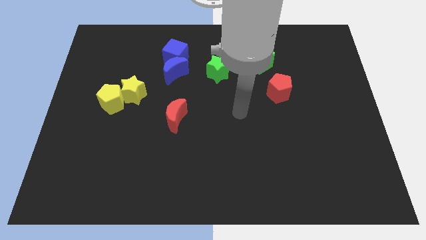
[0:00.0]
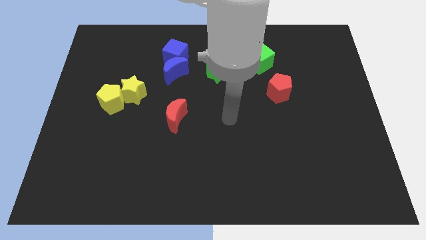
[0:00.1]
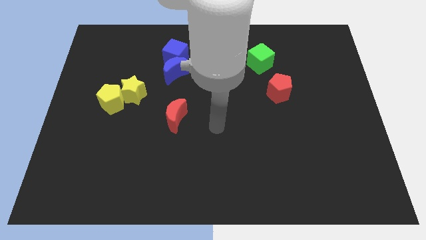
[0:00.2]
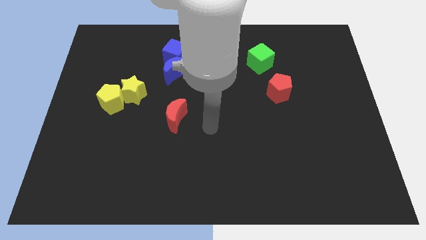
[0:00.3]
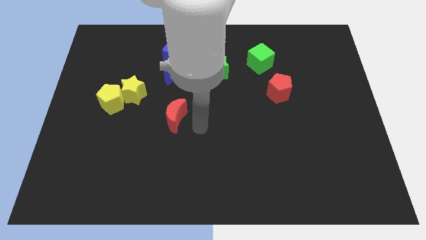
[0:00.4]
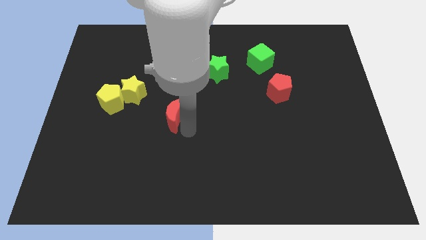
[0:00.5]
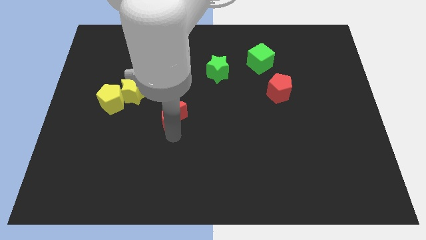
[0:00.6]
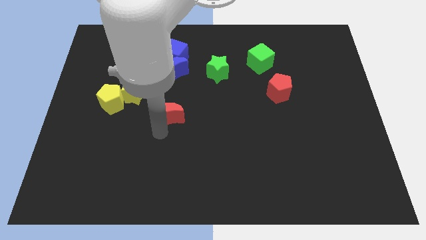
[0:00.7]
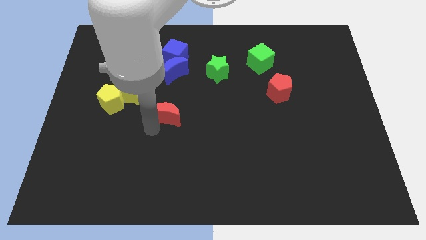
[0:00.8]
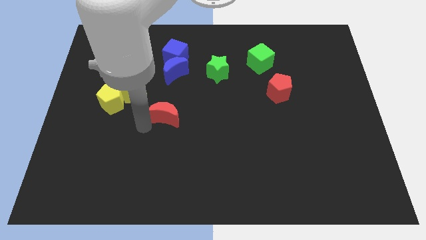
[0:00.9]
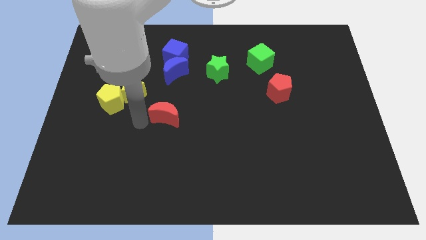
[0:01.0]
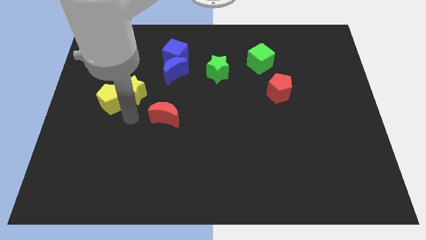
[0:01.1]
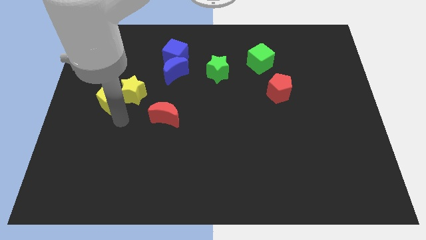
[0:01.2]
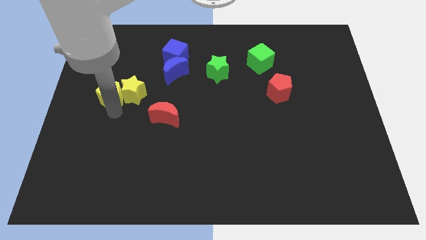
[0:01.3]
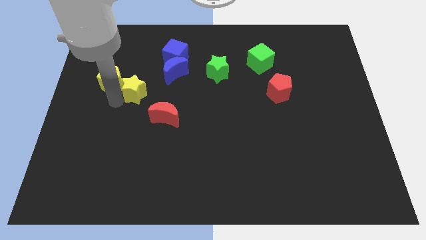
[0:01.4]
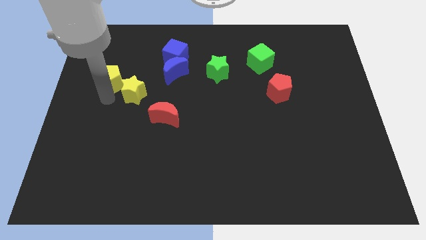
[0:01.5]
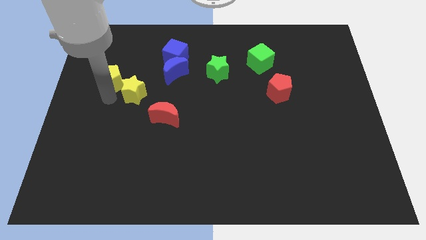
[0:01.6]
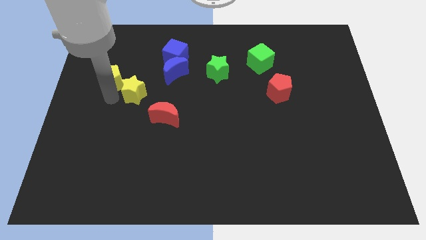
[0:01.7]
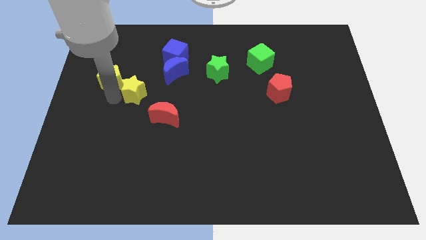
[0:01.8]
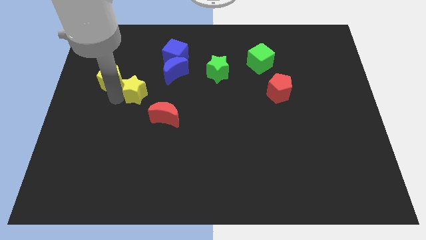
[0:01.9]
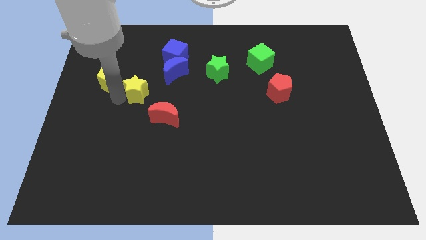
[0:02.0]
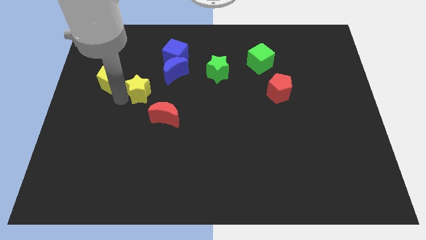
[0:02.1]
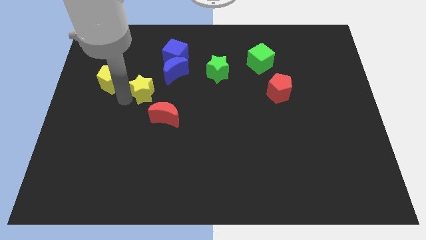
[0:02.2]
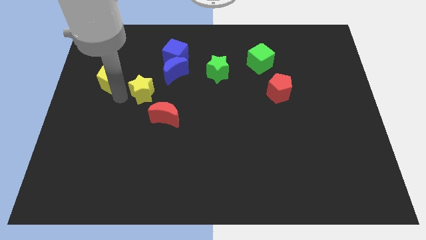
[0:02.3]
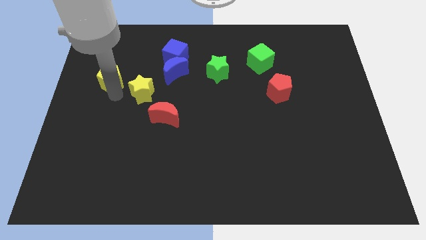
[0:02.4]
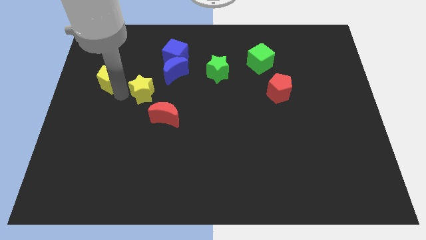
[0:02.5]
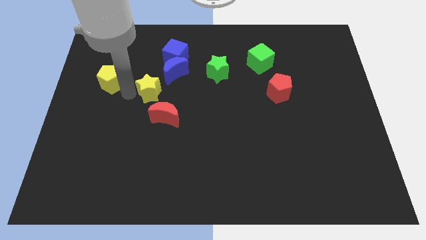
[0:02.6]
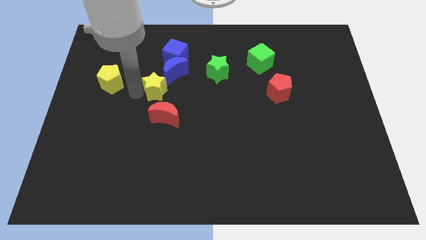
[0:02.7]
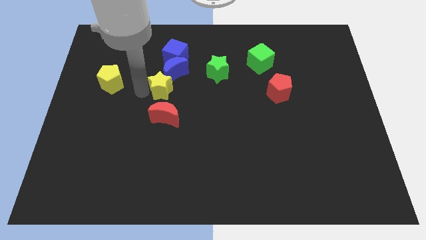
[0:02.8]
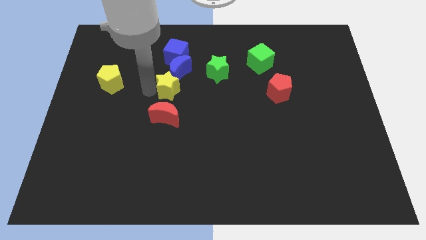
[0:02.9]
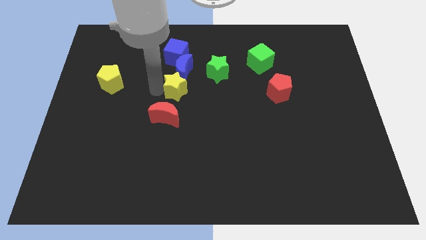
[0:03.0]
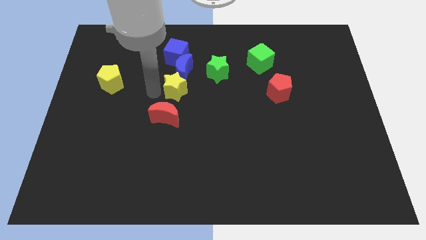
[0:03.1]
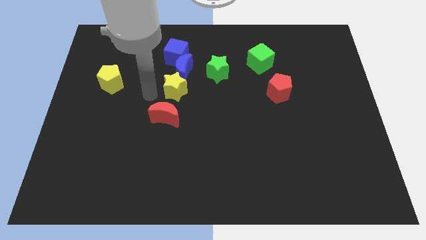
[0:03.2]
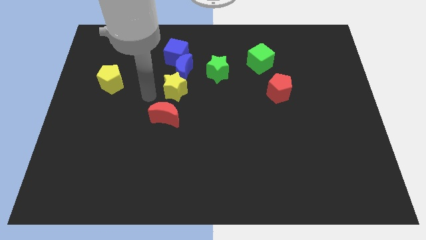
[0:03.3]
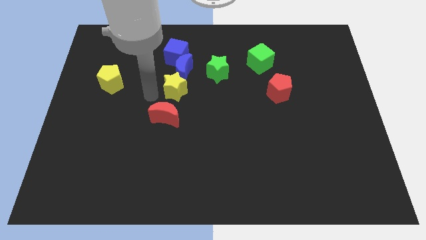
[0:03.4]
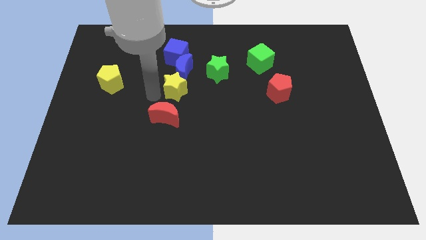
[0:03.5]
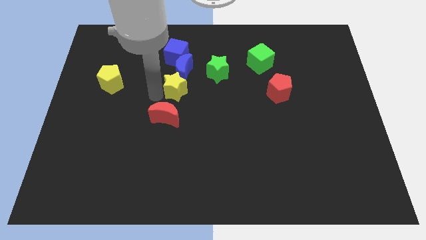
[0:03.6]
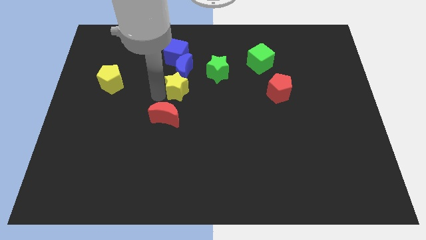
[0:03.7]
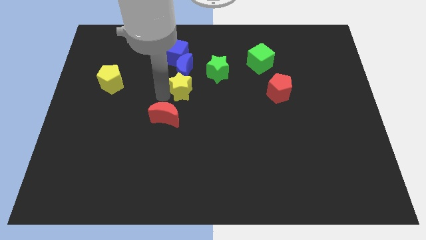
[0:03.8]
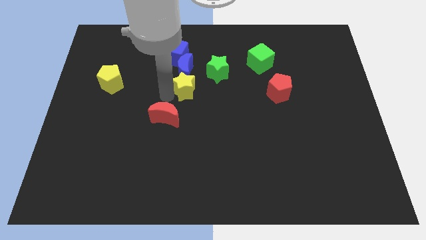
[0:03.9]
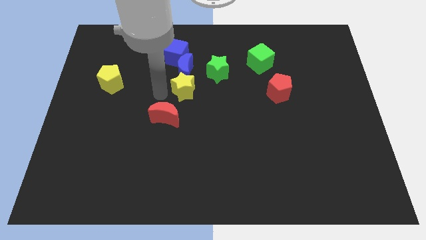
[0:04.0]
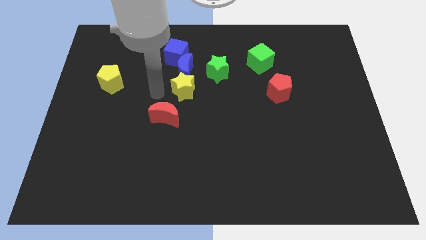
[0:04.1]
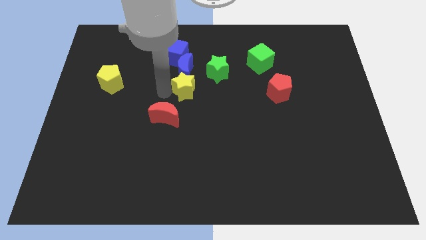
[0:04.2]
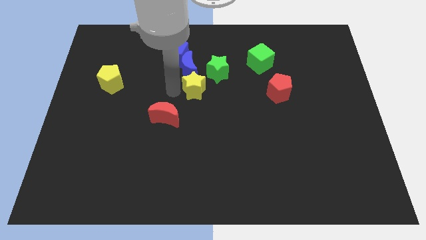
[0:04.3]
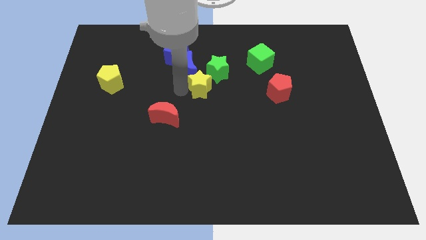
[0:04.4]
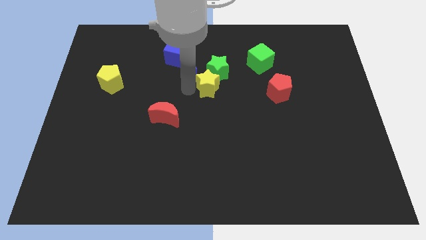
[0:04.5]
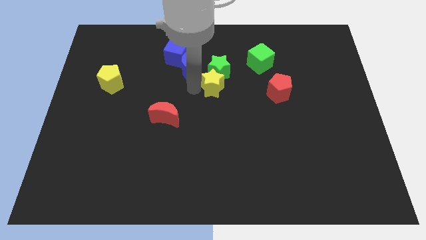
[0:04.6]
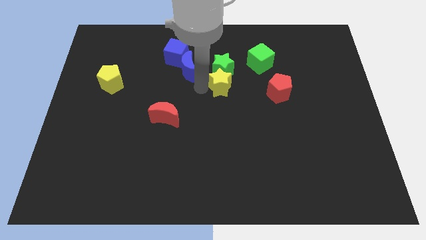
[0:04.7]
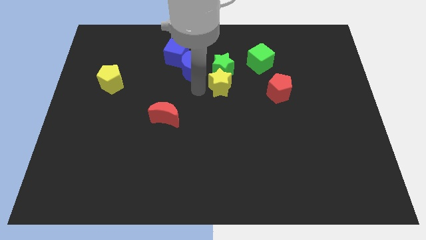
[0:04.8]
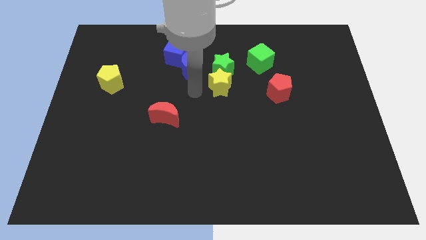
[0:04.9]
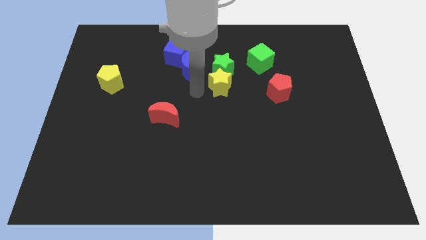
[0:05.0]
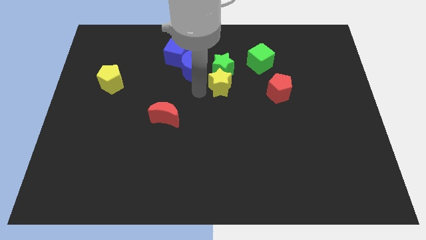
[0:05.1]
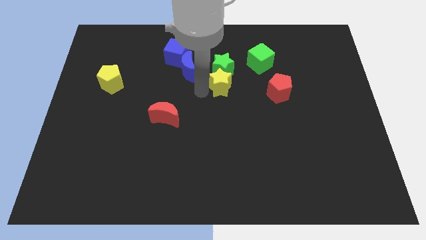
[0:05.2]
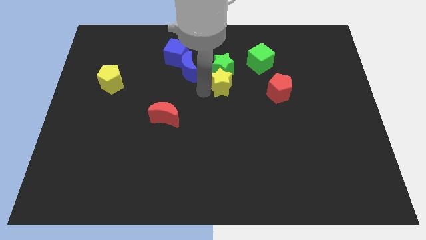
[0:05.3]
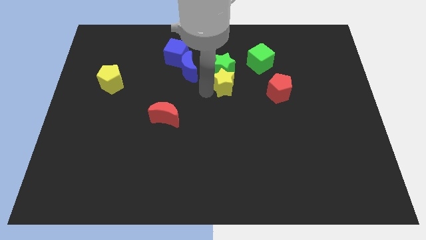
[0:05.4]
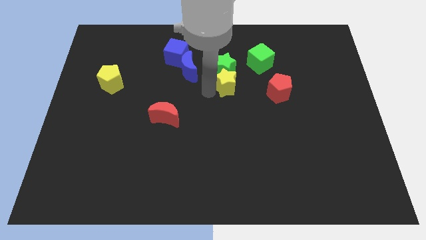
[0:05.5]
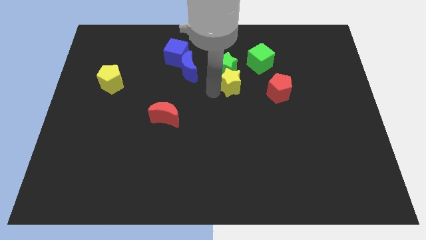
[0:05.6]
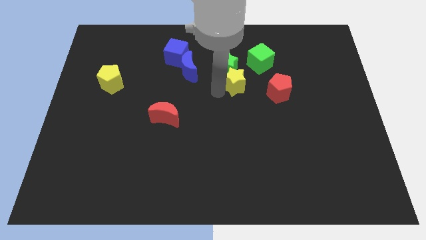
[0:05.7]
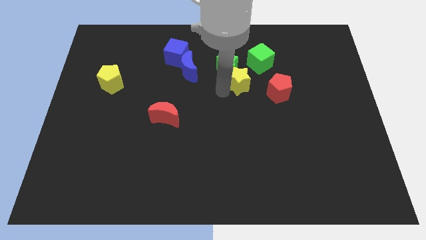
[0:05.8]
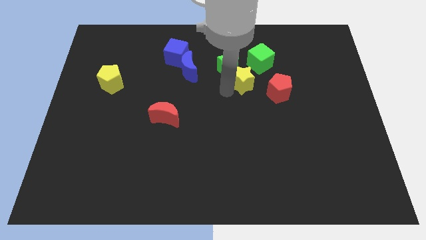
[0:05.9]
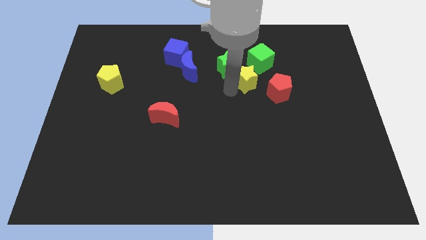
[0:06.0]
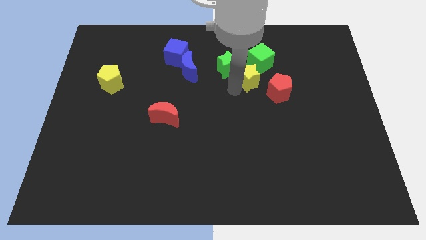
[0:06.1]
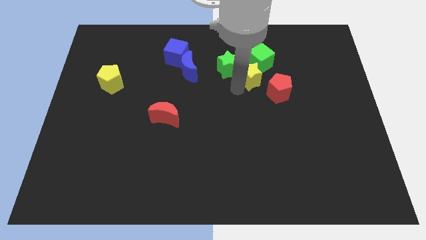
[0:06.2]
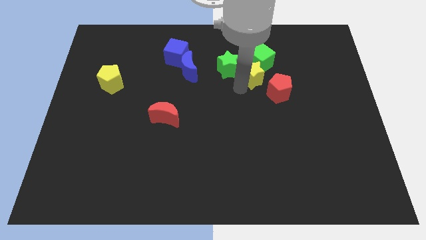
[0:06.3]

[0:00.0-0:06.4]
slide the yellow star towards the green cube
